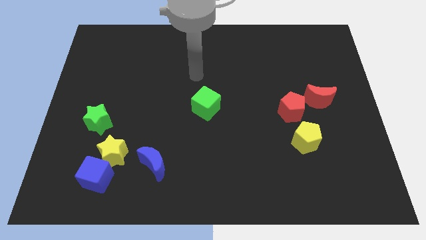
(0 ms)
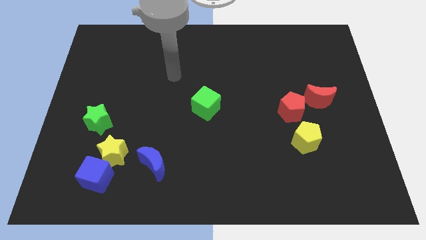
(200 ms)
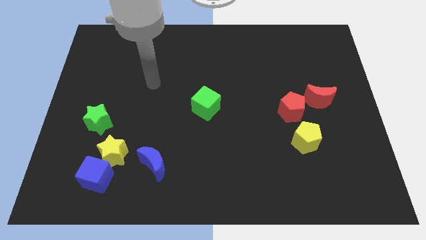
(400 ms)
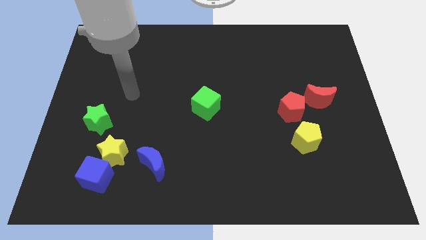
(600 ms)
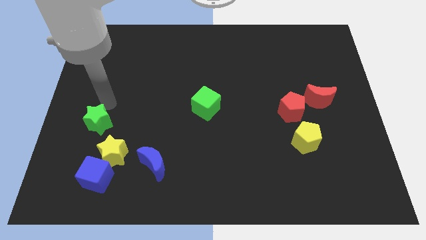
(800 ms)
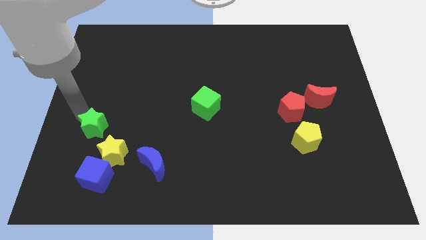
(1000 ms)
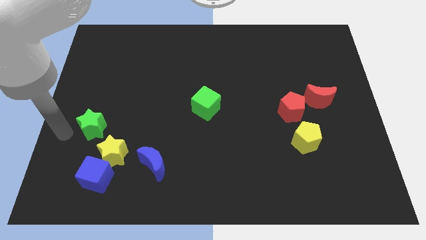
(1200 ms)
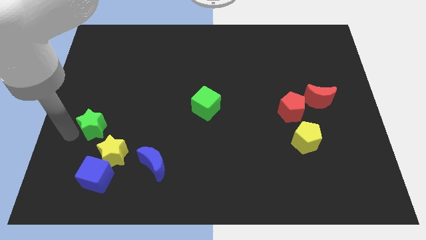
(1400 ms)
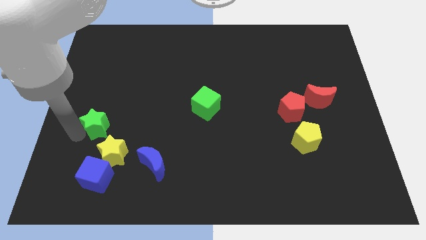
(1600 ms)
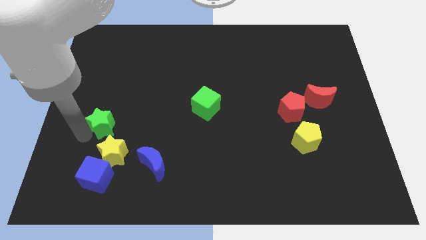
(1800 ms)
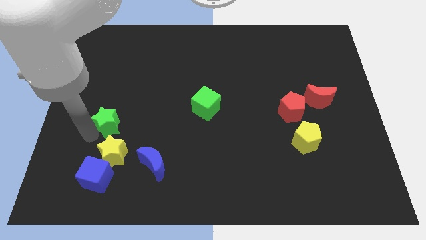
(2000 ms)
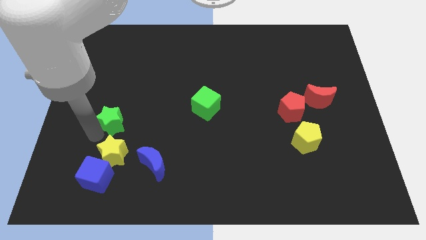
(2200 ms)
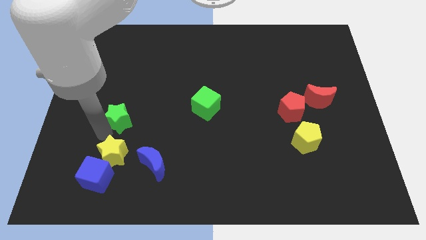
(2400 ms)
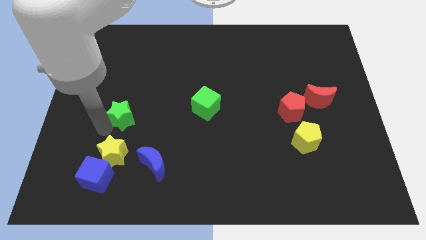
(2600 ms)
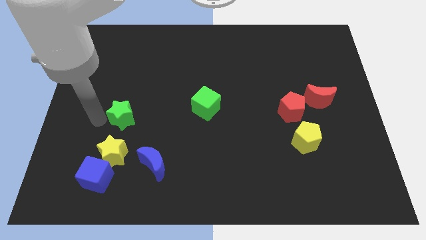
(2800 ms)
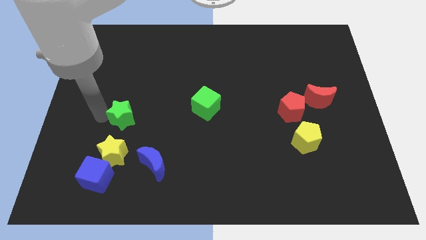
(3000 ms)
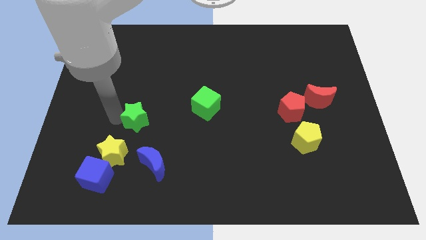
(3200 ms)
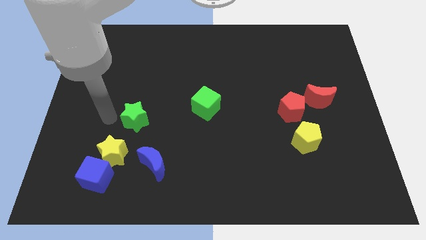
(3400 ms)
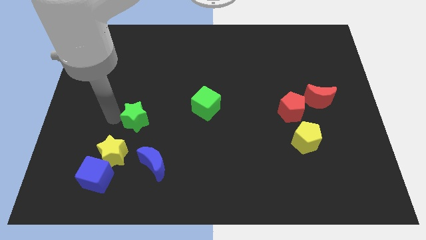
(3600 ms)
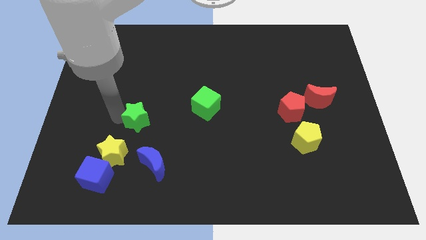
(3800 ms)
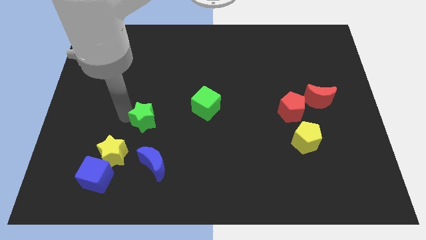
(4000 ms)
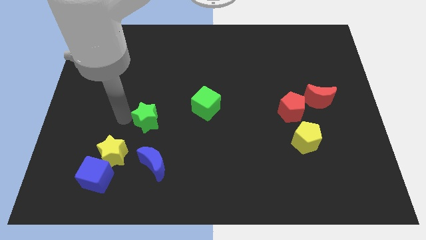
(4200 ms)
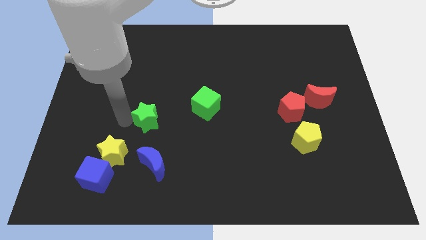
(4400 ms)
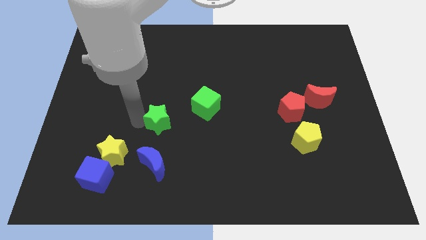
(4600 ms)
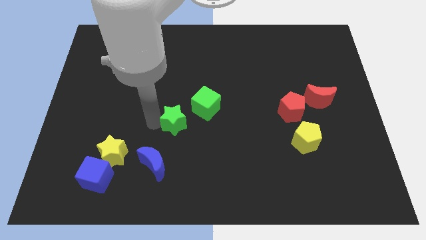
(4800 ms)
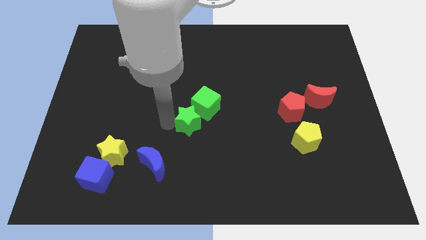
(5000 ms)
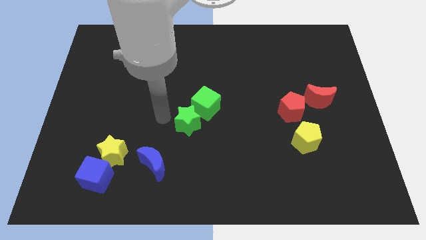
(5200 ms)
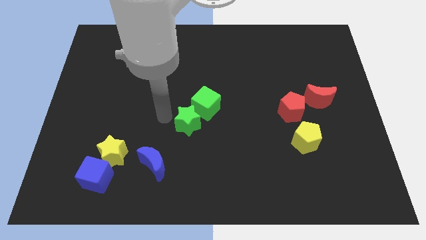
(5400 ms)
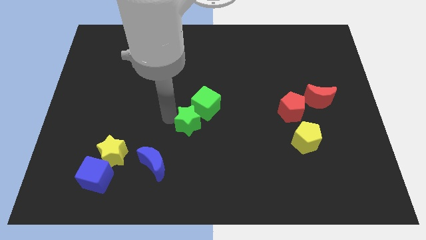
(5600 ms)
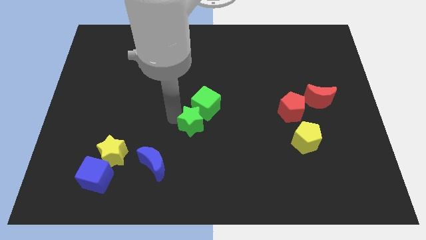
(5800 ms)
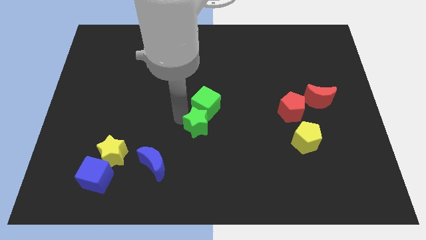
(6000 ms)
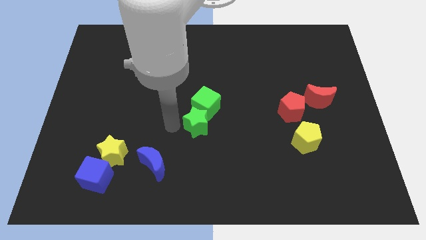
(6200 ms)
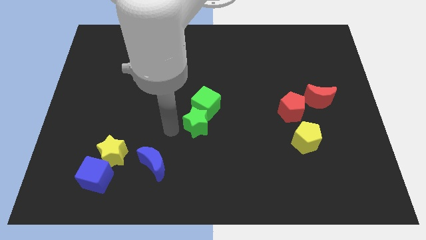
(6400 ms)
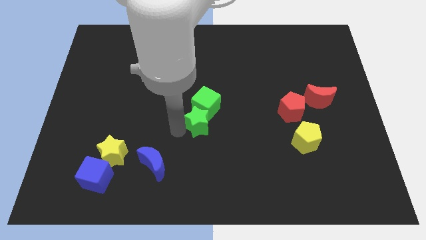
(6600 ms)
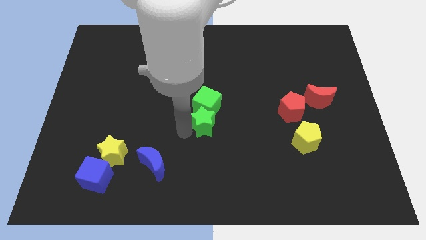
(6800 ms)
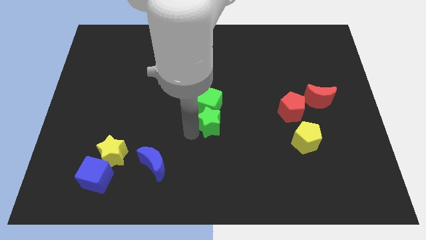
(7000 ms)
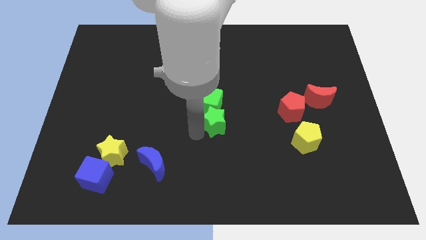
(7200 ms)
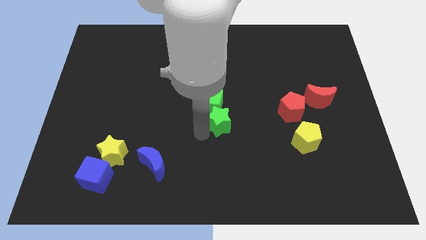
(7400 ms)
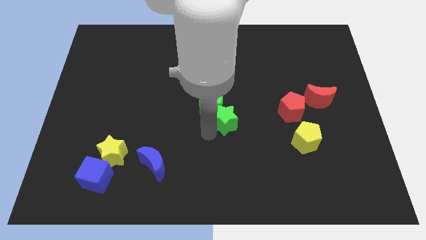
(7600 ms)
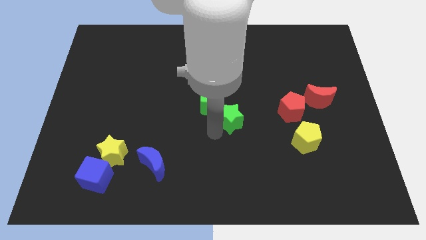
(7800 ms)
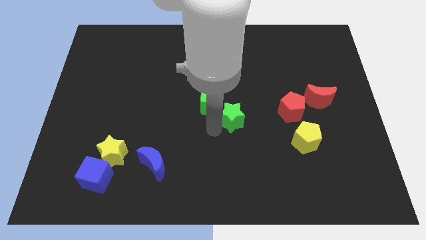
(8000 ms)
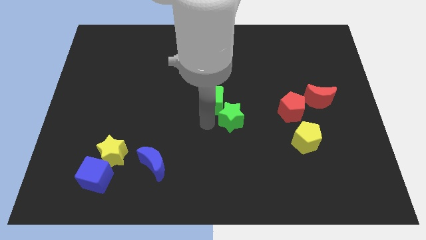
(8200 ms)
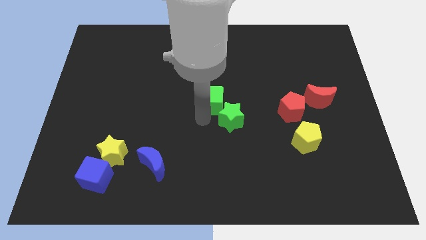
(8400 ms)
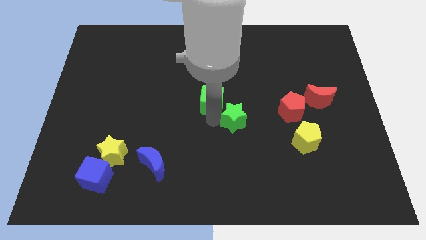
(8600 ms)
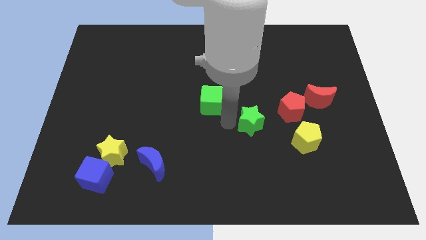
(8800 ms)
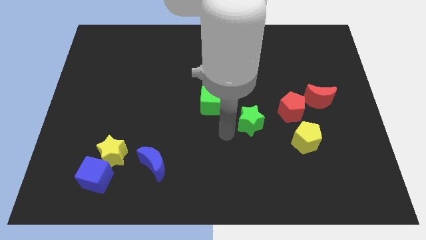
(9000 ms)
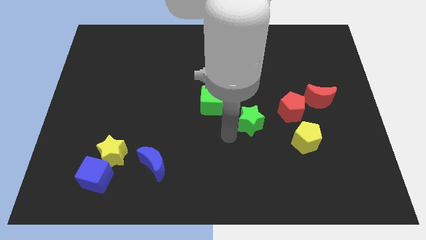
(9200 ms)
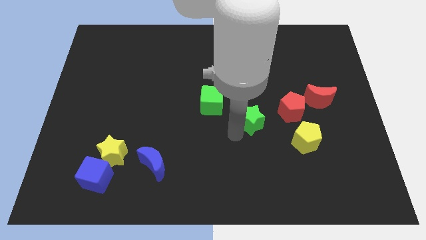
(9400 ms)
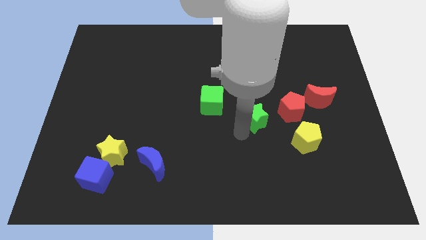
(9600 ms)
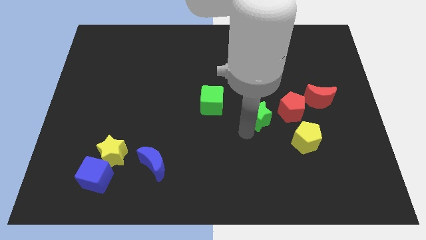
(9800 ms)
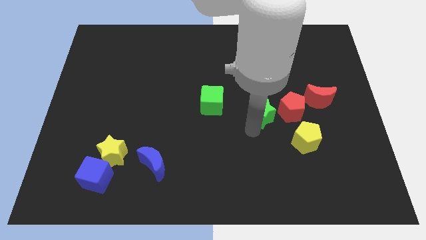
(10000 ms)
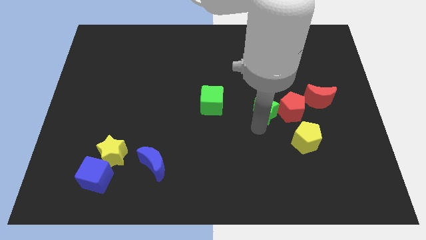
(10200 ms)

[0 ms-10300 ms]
move the green star next to the red pentagon

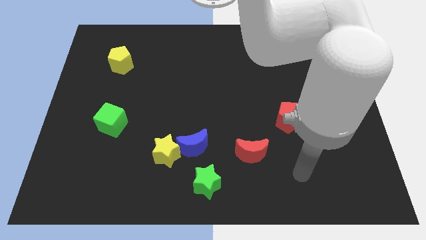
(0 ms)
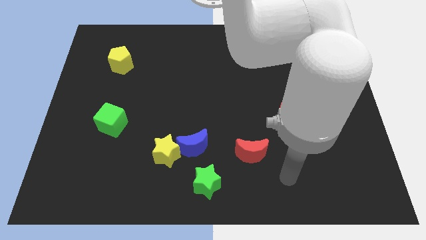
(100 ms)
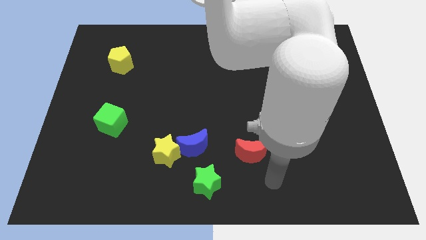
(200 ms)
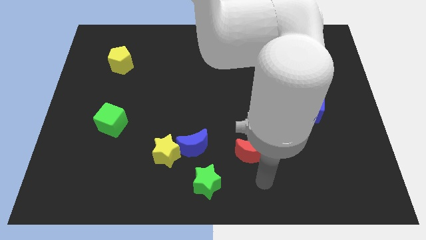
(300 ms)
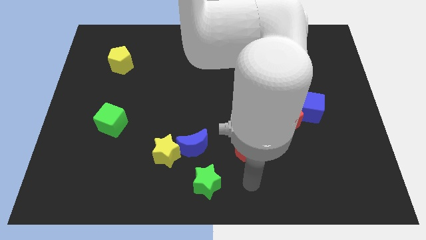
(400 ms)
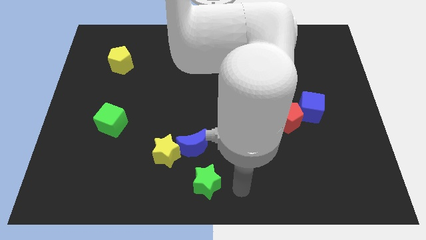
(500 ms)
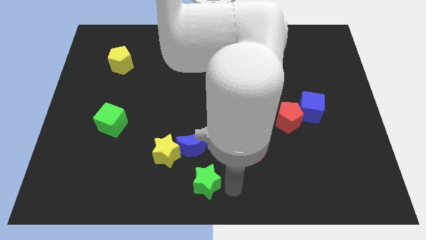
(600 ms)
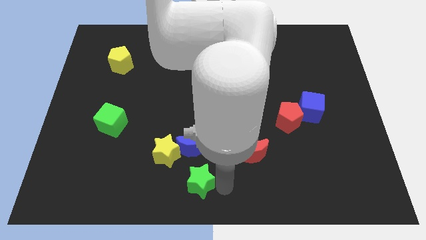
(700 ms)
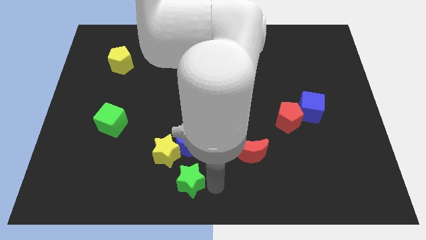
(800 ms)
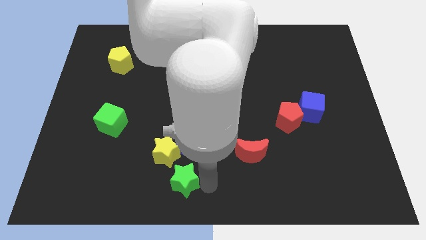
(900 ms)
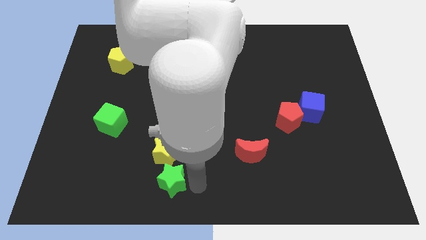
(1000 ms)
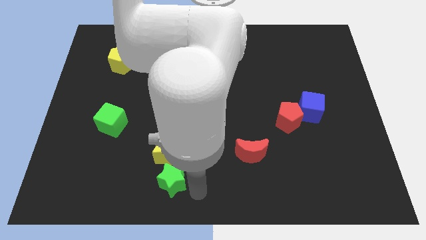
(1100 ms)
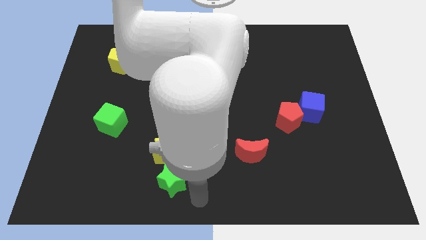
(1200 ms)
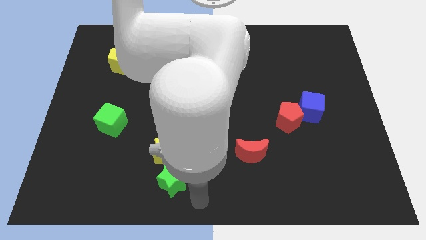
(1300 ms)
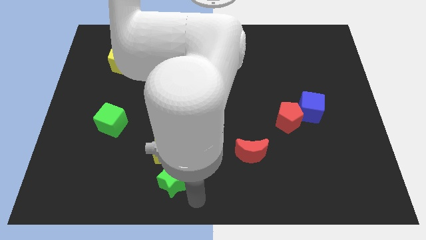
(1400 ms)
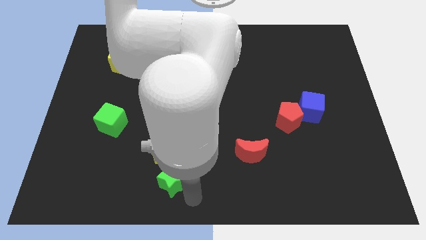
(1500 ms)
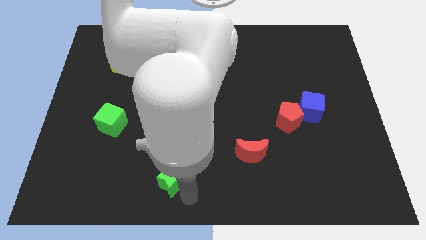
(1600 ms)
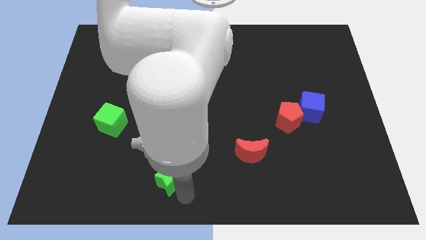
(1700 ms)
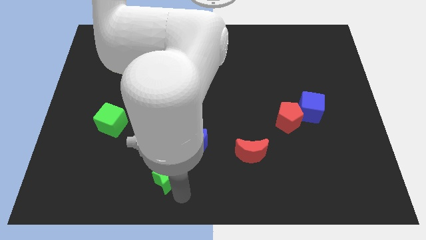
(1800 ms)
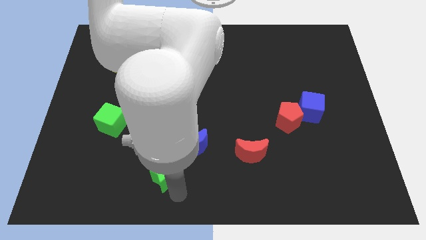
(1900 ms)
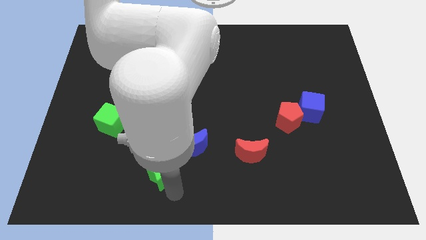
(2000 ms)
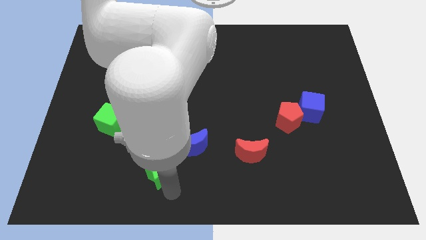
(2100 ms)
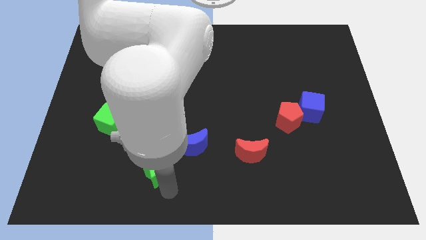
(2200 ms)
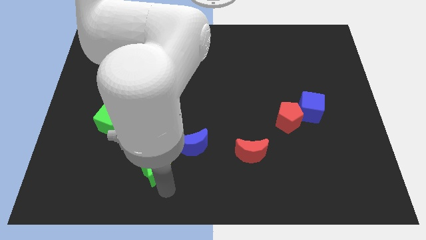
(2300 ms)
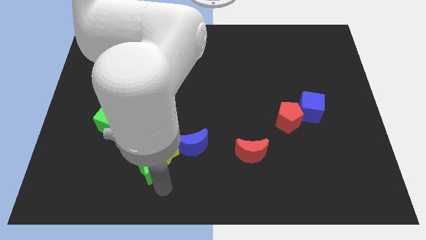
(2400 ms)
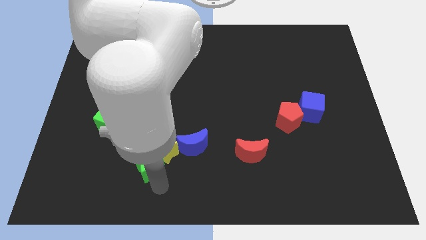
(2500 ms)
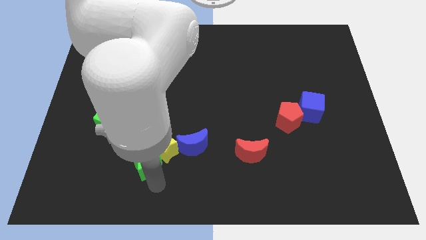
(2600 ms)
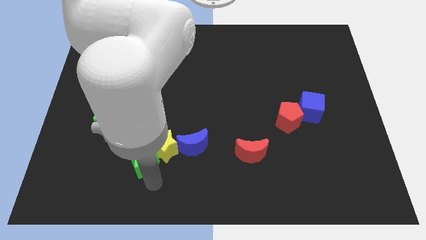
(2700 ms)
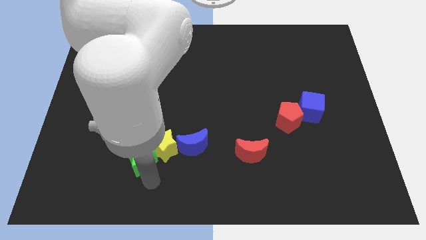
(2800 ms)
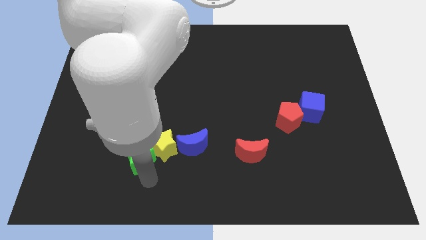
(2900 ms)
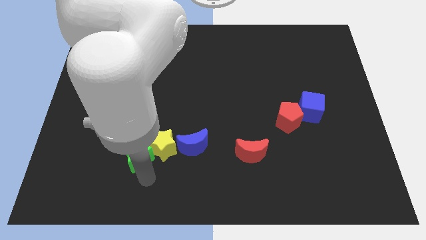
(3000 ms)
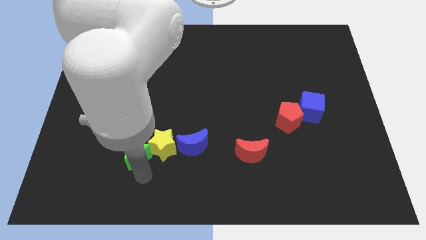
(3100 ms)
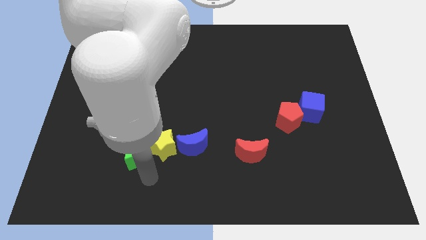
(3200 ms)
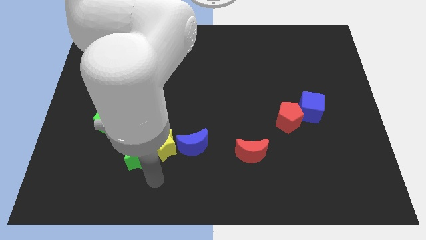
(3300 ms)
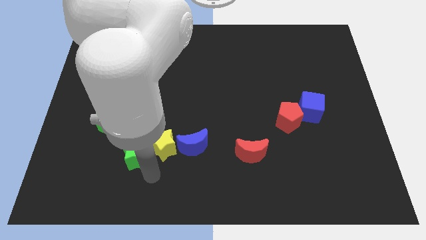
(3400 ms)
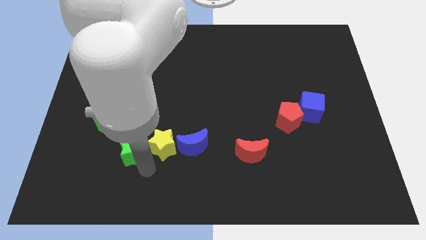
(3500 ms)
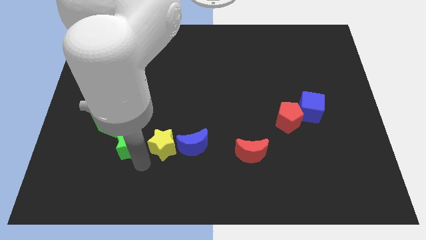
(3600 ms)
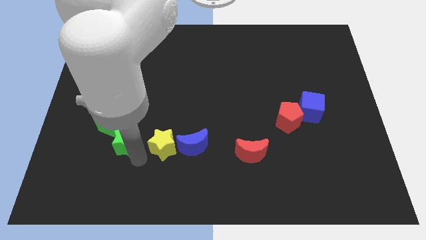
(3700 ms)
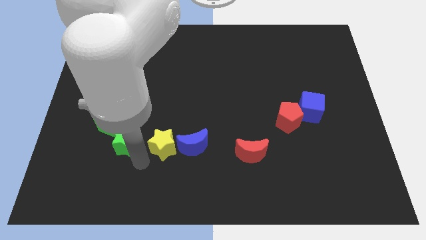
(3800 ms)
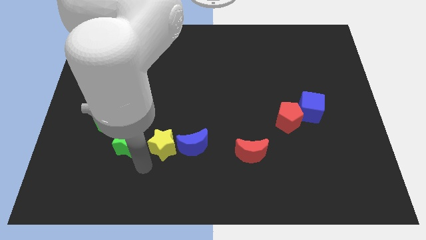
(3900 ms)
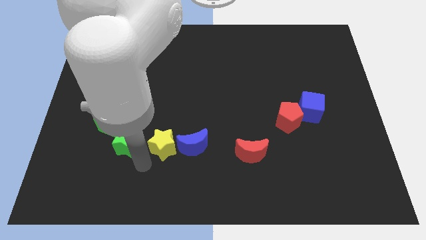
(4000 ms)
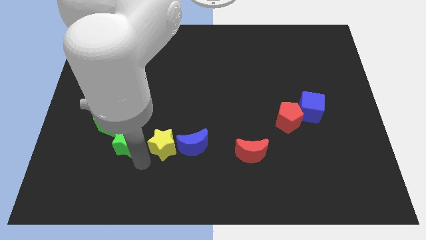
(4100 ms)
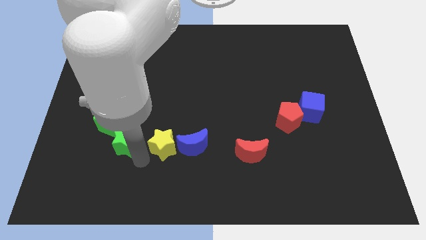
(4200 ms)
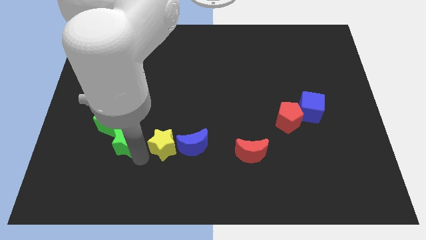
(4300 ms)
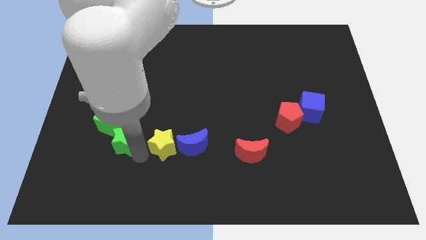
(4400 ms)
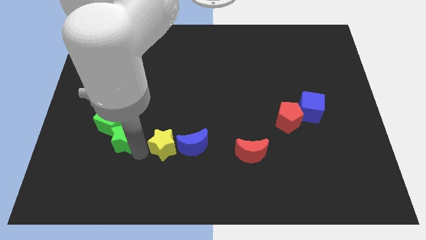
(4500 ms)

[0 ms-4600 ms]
slide the green star next to the green cube
